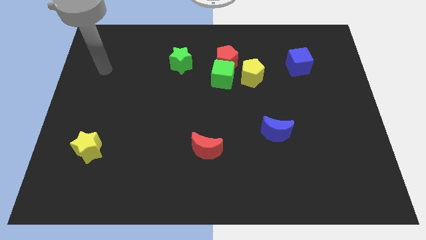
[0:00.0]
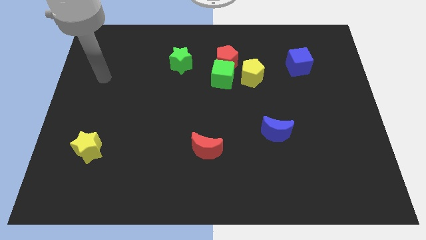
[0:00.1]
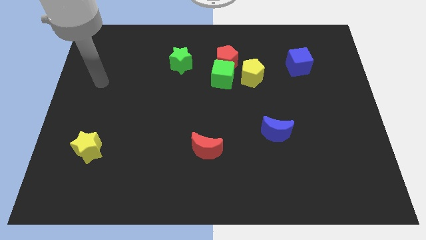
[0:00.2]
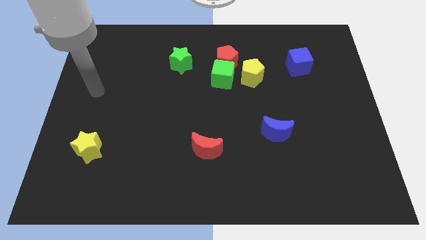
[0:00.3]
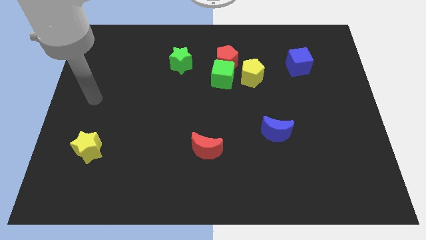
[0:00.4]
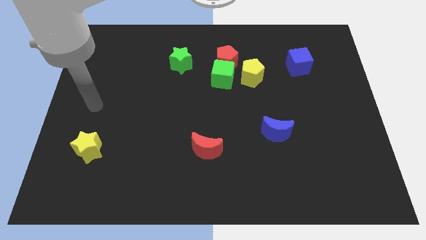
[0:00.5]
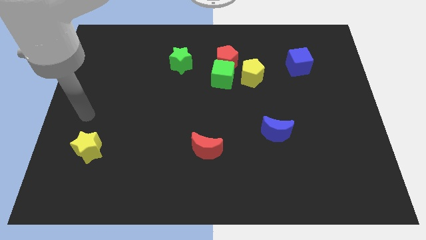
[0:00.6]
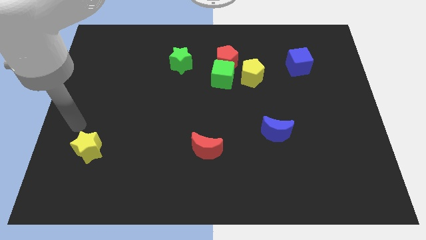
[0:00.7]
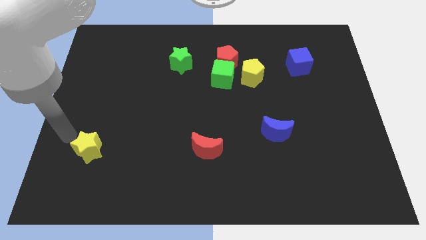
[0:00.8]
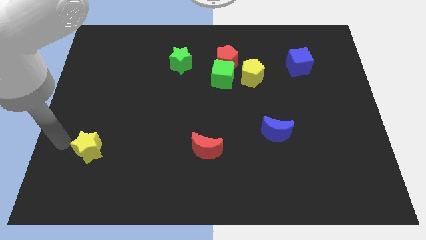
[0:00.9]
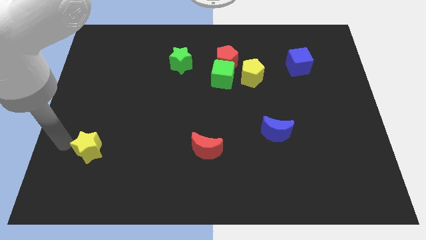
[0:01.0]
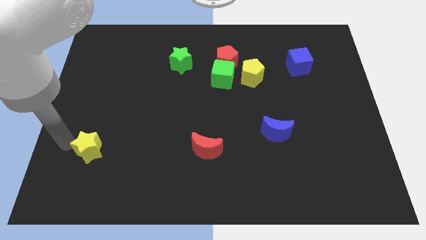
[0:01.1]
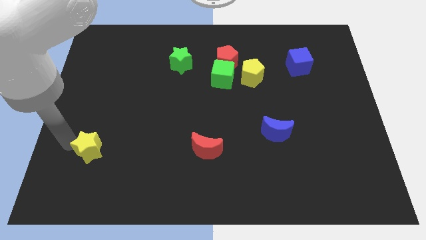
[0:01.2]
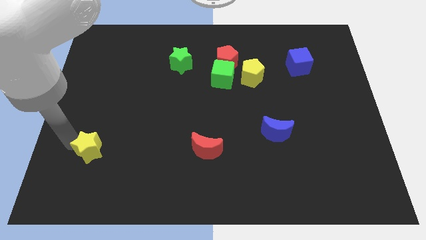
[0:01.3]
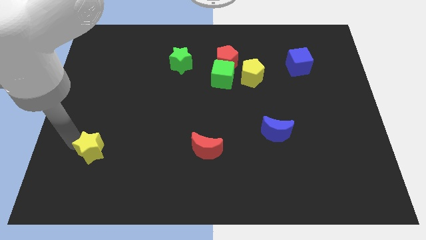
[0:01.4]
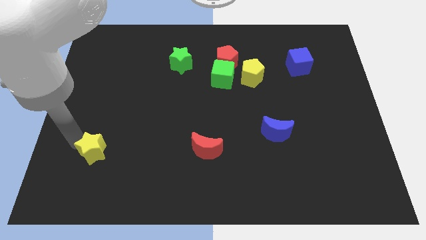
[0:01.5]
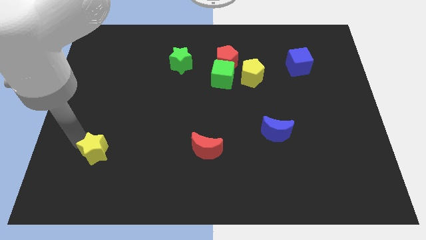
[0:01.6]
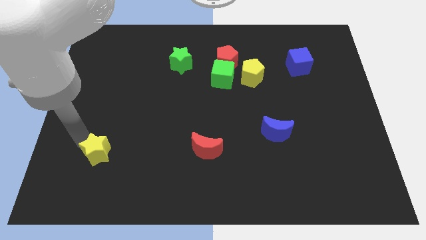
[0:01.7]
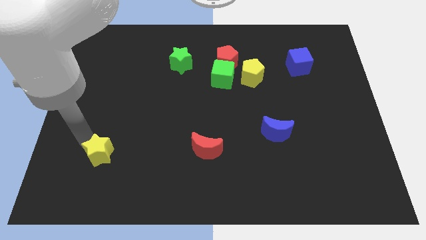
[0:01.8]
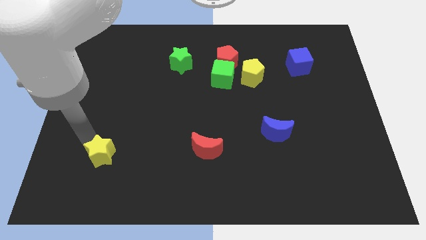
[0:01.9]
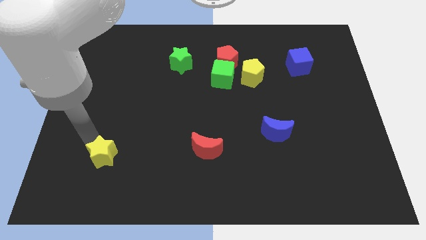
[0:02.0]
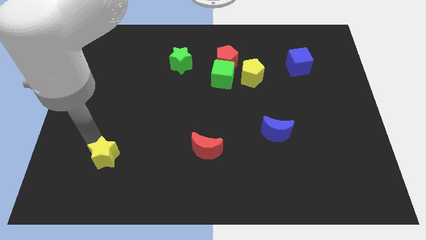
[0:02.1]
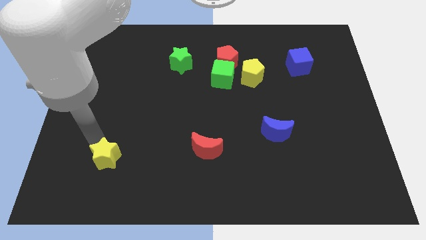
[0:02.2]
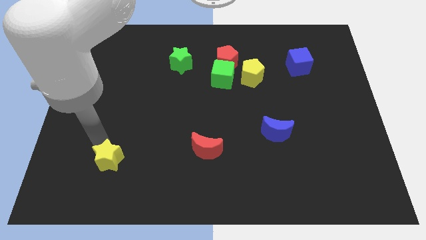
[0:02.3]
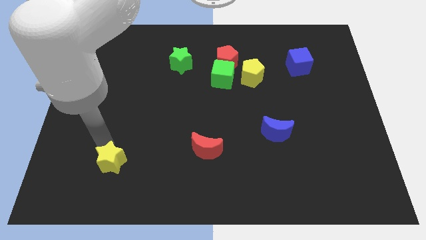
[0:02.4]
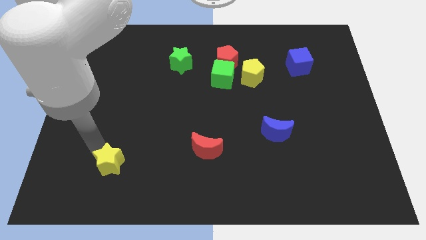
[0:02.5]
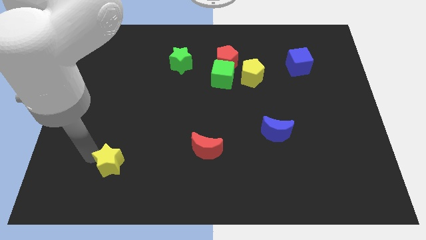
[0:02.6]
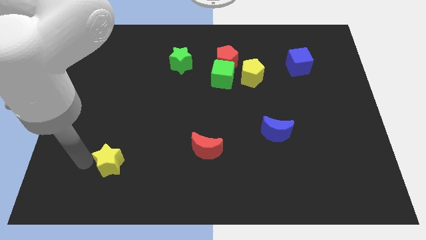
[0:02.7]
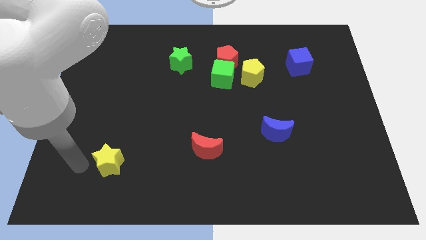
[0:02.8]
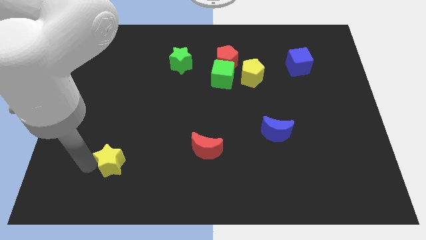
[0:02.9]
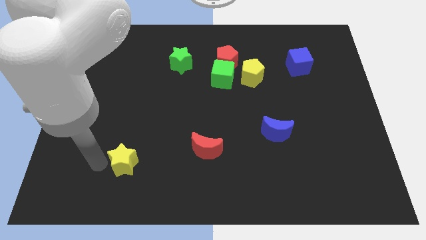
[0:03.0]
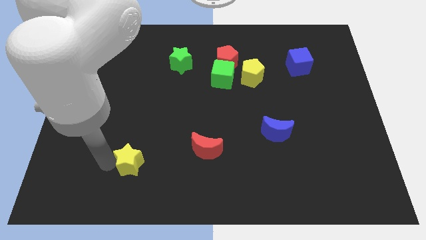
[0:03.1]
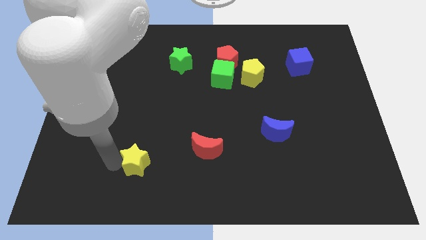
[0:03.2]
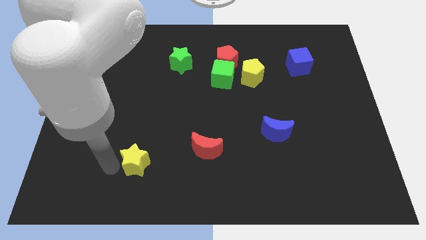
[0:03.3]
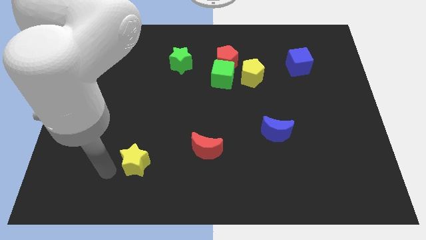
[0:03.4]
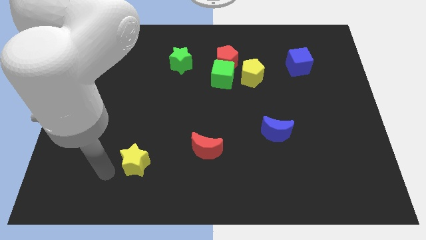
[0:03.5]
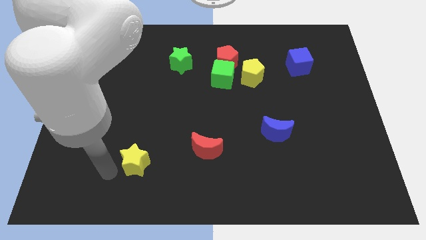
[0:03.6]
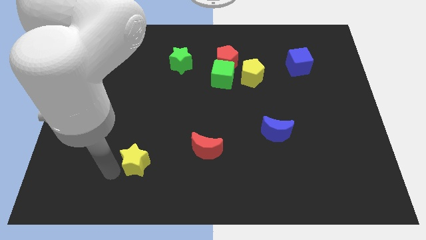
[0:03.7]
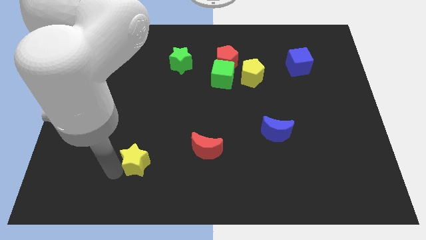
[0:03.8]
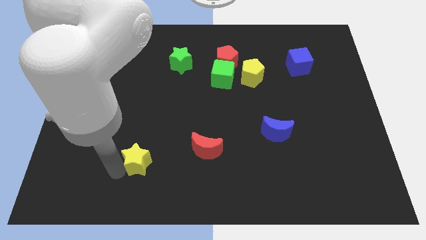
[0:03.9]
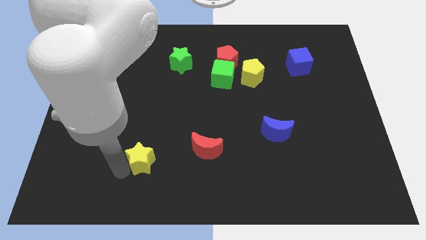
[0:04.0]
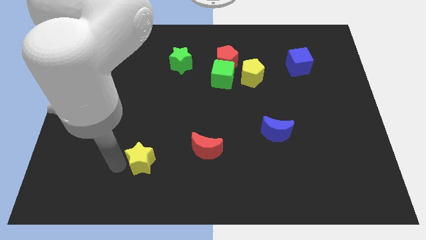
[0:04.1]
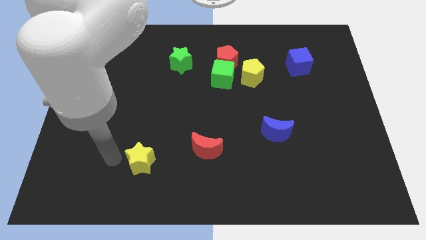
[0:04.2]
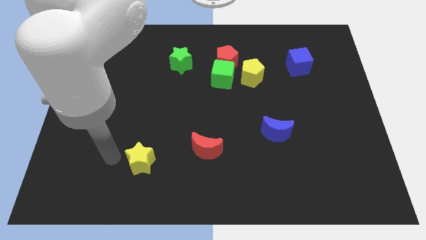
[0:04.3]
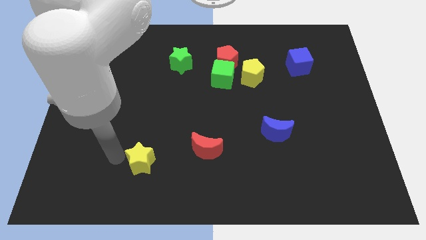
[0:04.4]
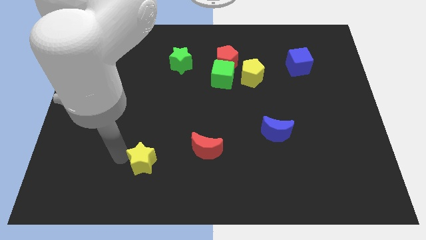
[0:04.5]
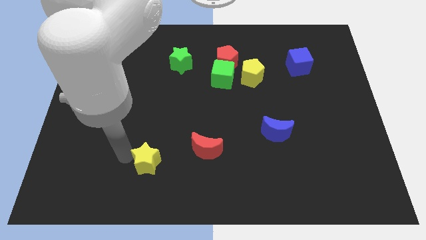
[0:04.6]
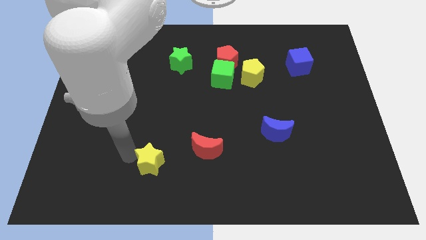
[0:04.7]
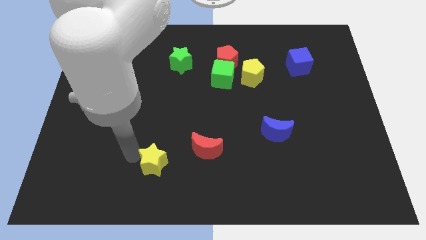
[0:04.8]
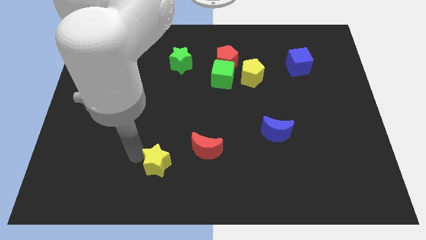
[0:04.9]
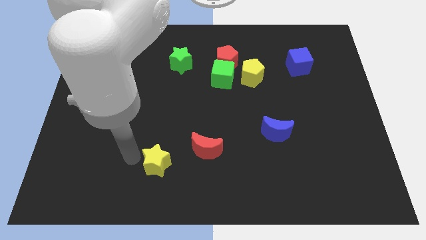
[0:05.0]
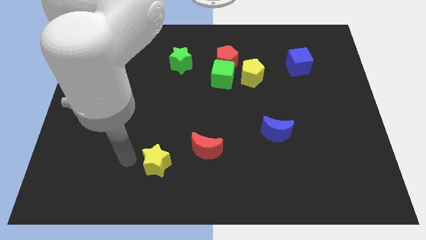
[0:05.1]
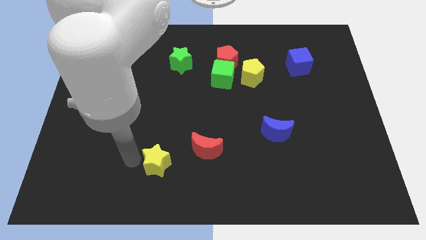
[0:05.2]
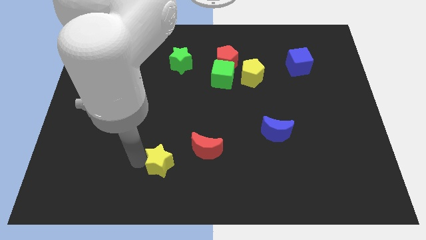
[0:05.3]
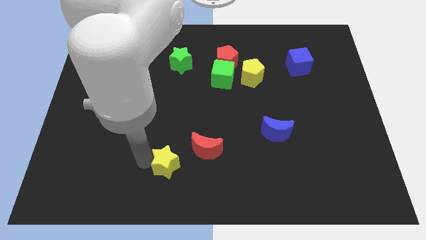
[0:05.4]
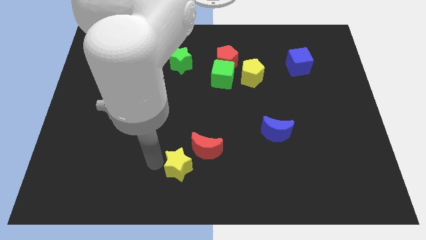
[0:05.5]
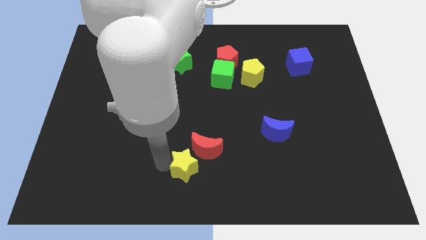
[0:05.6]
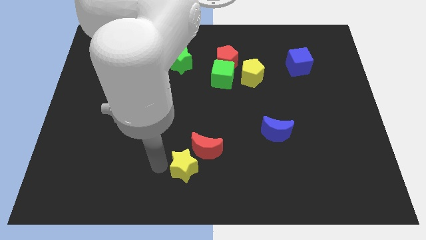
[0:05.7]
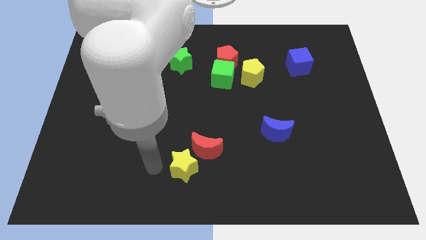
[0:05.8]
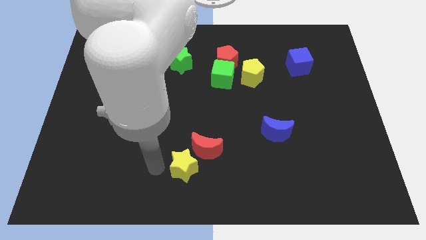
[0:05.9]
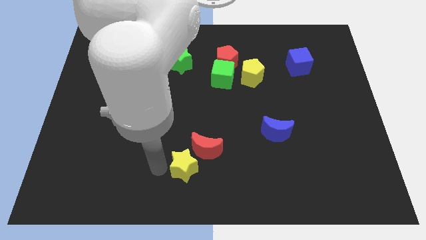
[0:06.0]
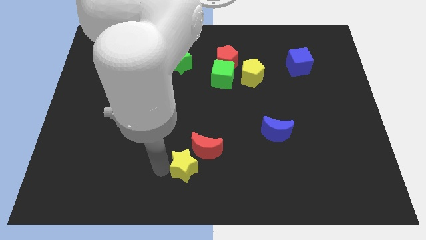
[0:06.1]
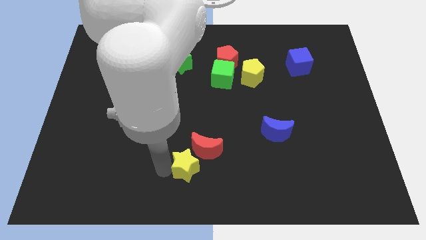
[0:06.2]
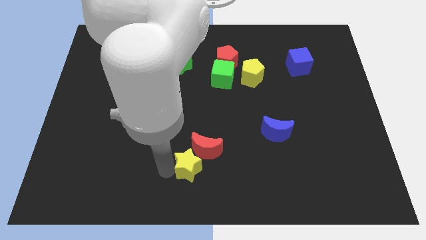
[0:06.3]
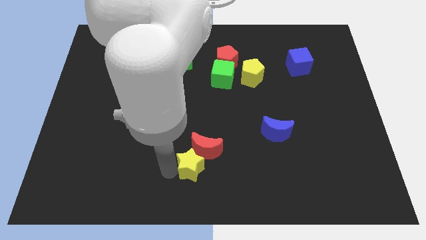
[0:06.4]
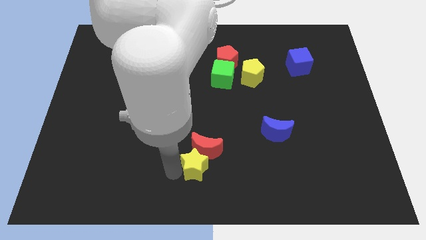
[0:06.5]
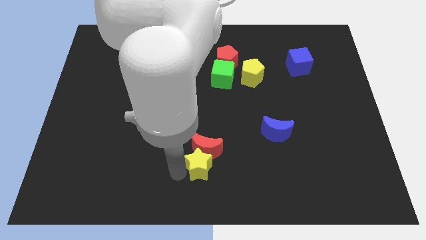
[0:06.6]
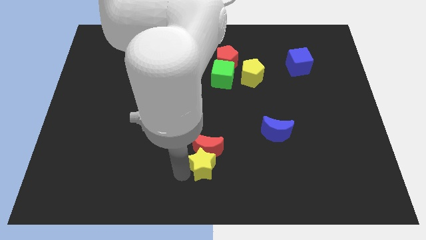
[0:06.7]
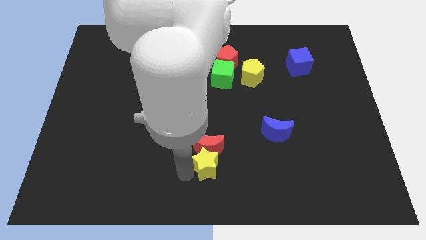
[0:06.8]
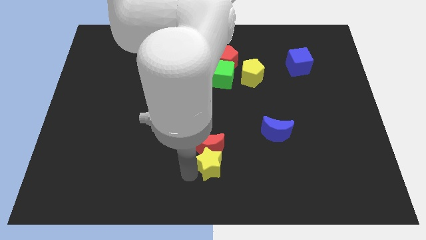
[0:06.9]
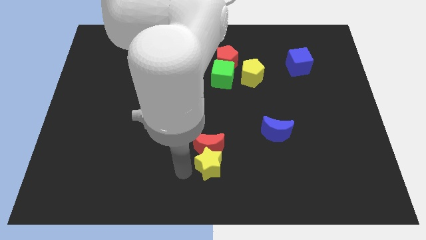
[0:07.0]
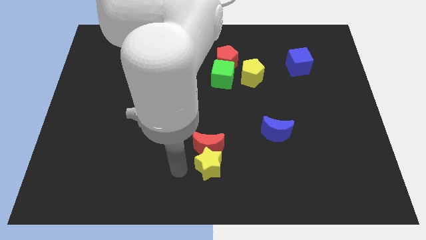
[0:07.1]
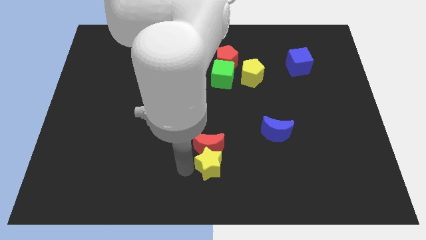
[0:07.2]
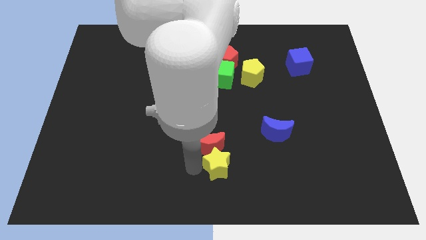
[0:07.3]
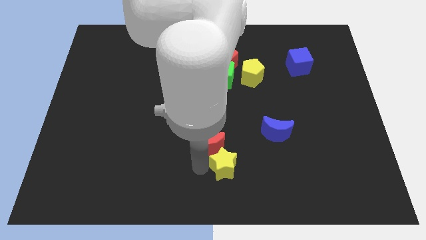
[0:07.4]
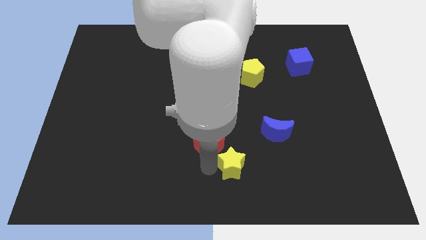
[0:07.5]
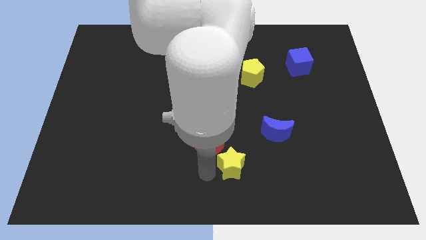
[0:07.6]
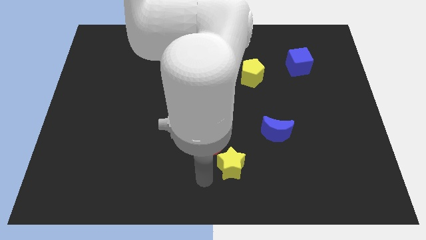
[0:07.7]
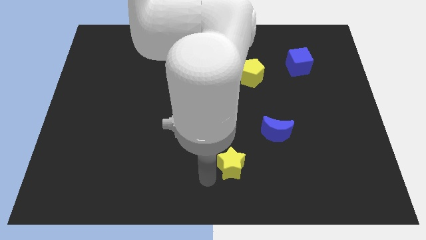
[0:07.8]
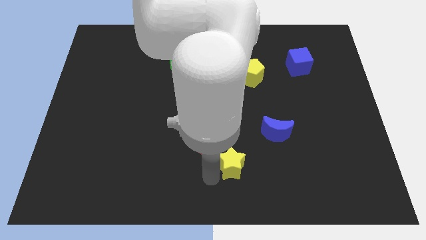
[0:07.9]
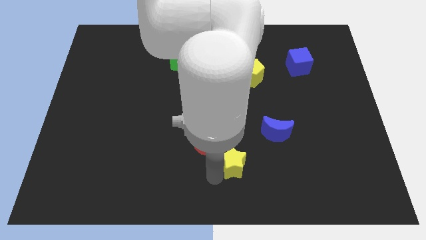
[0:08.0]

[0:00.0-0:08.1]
put the yellow star diagonally down and to the left of the blue moon
